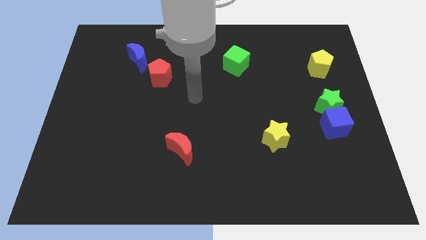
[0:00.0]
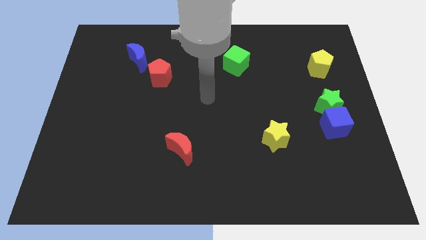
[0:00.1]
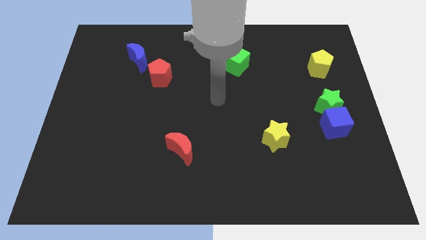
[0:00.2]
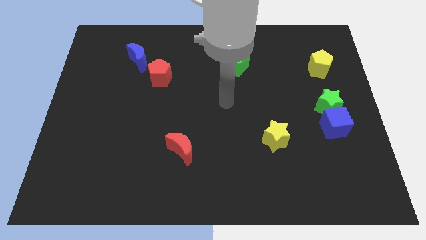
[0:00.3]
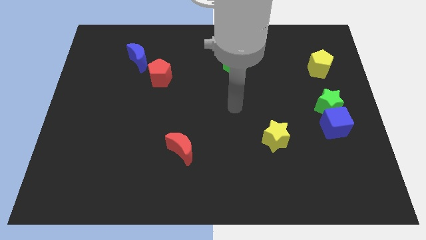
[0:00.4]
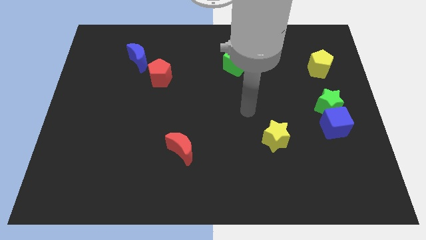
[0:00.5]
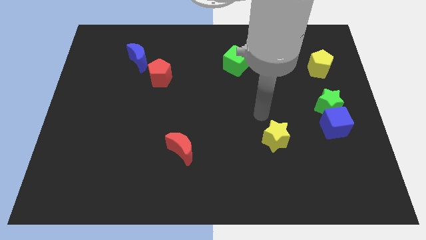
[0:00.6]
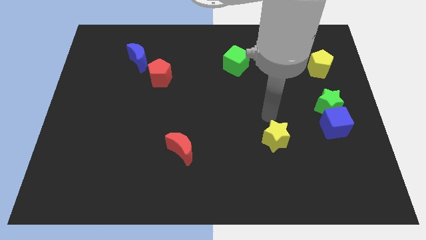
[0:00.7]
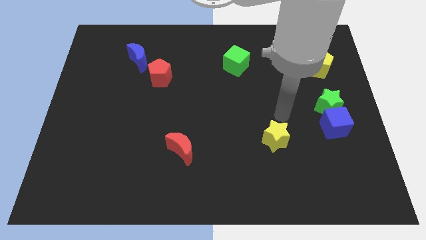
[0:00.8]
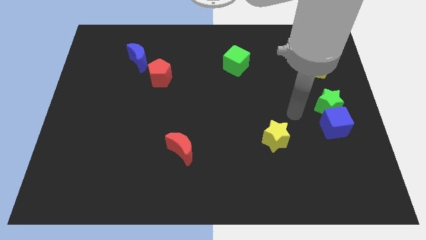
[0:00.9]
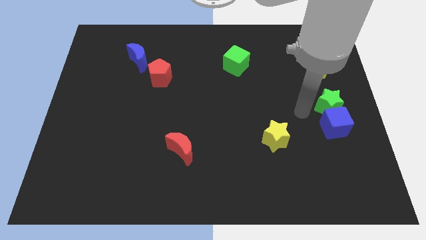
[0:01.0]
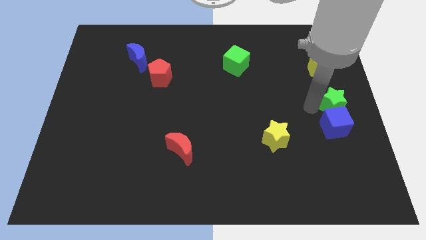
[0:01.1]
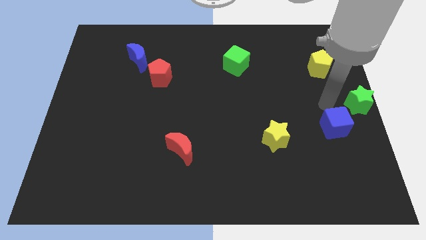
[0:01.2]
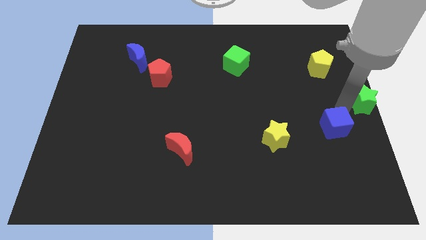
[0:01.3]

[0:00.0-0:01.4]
pull the blue cube apart from the green star

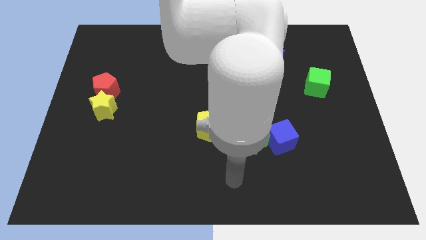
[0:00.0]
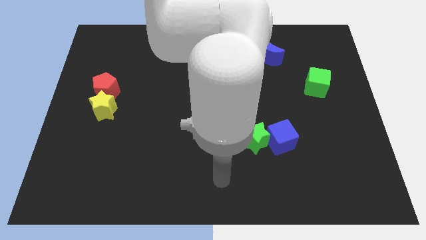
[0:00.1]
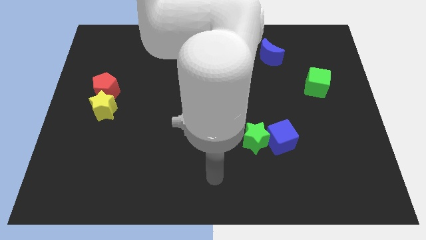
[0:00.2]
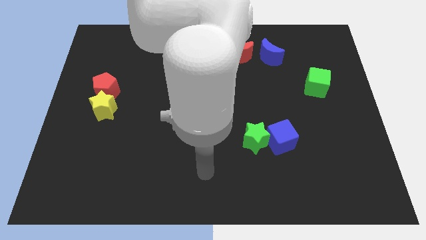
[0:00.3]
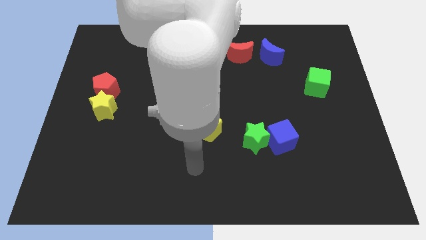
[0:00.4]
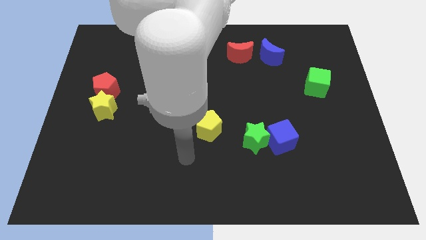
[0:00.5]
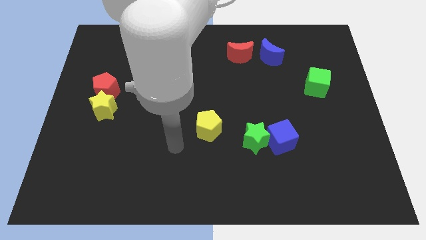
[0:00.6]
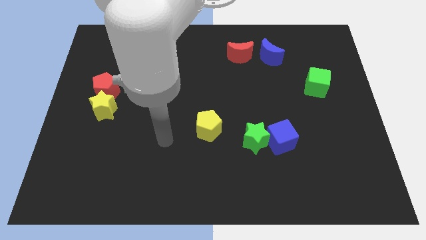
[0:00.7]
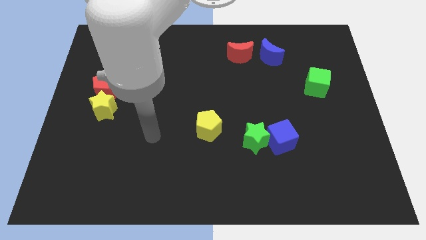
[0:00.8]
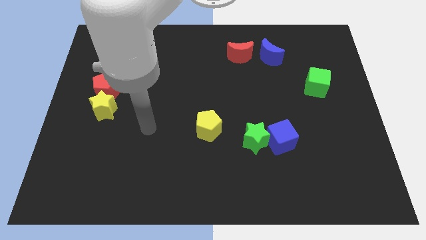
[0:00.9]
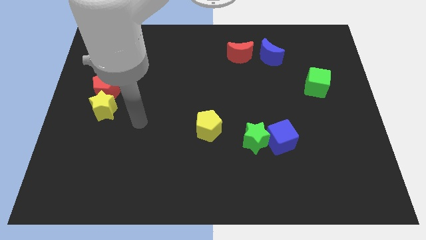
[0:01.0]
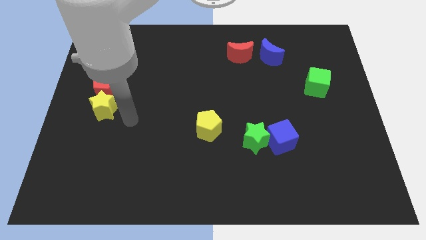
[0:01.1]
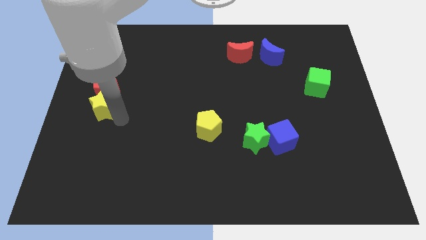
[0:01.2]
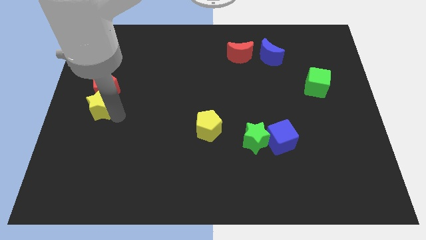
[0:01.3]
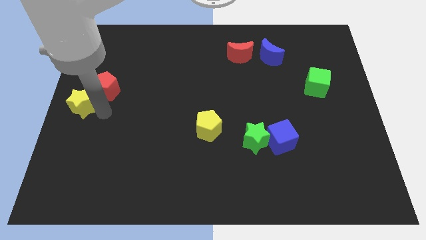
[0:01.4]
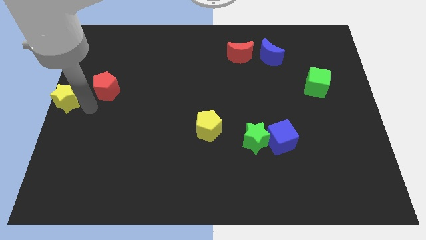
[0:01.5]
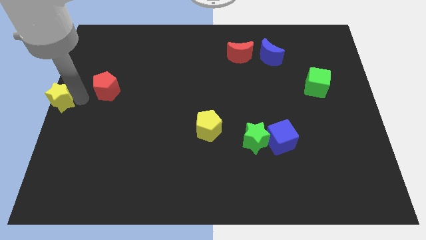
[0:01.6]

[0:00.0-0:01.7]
pull the red pentagon apart from the yellow star

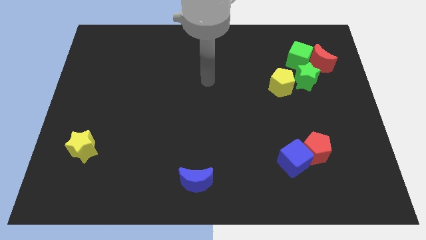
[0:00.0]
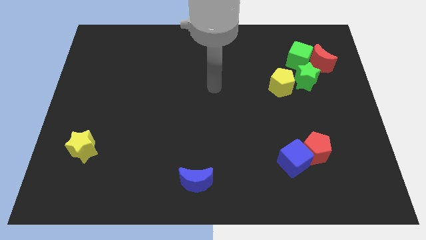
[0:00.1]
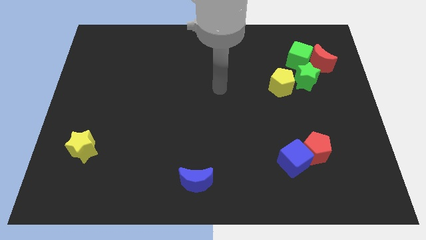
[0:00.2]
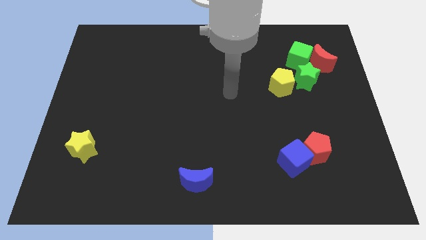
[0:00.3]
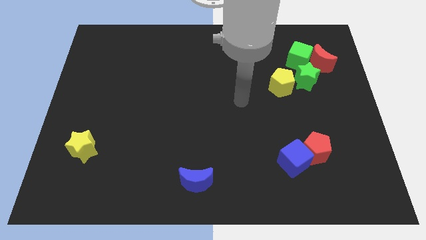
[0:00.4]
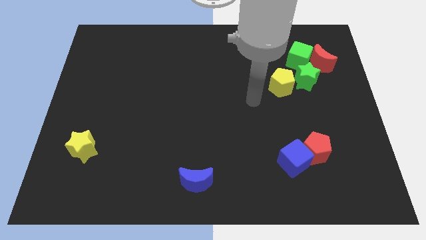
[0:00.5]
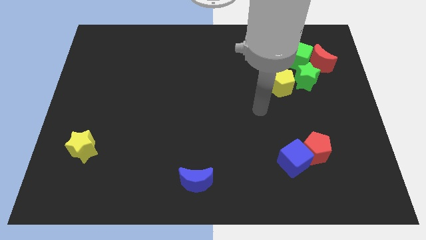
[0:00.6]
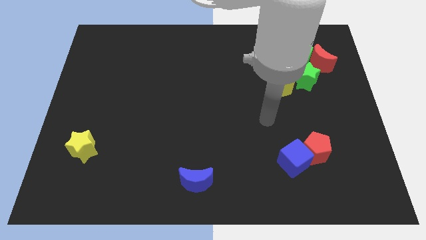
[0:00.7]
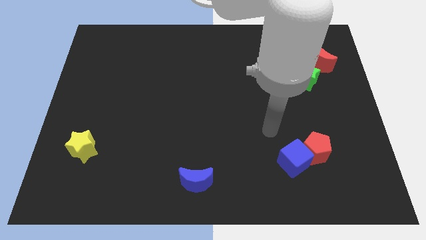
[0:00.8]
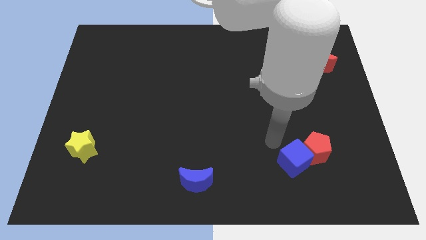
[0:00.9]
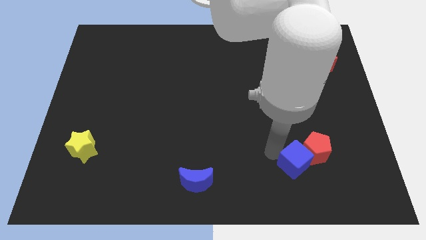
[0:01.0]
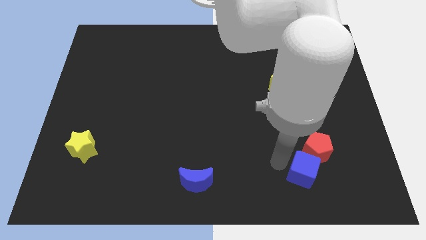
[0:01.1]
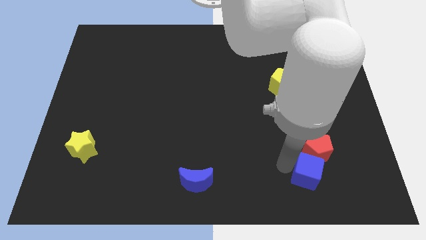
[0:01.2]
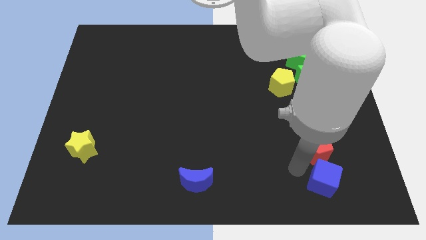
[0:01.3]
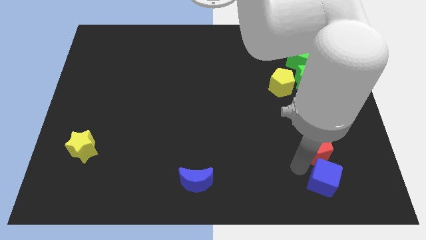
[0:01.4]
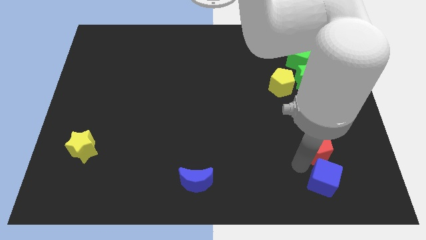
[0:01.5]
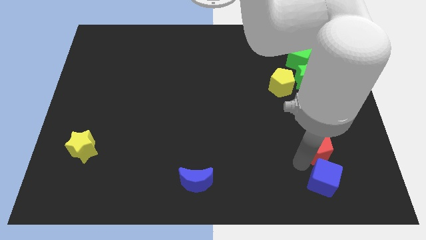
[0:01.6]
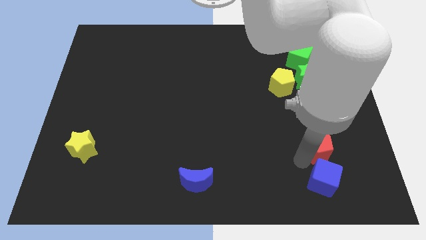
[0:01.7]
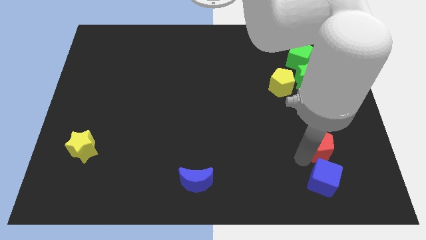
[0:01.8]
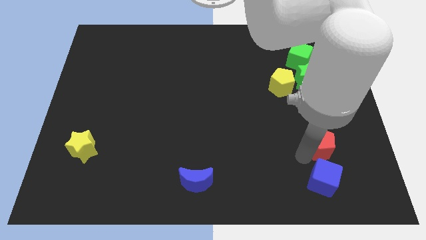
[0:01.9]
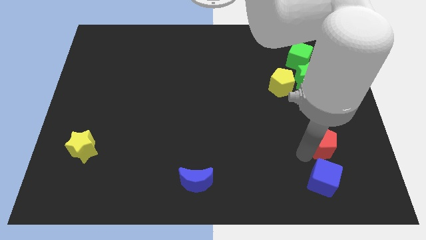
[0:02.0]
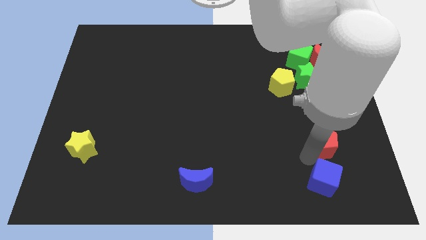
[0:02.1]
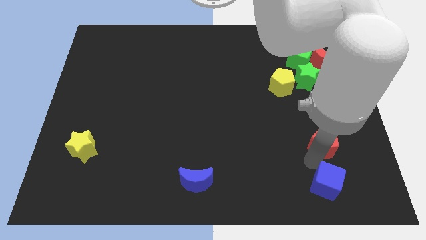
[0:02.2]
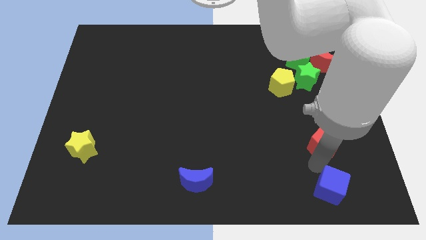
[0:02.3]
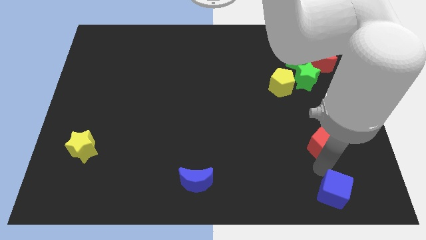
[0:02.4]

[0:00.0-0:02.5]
move the red pentagon away from the blue cube

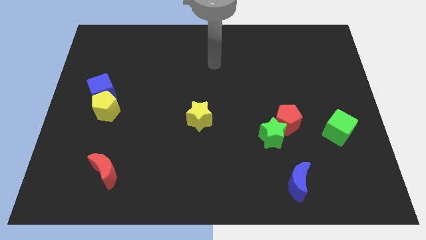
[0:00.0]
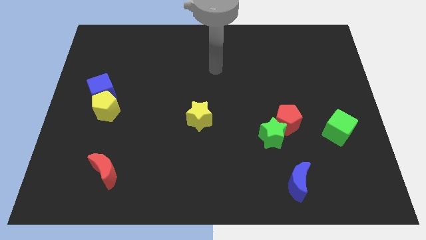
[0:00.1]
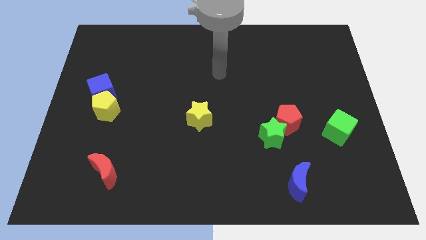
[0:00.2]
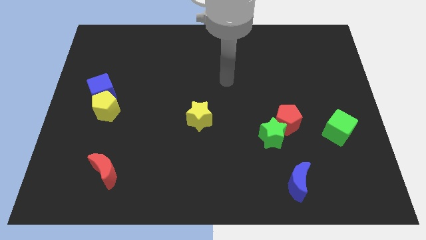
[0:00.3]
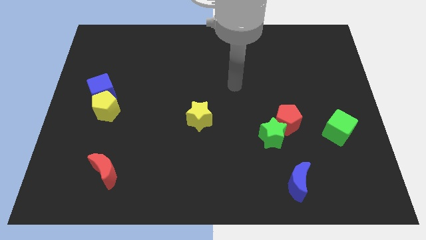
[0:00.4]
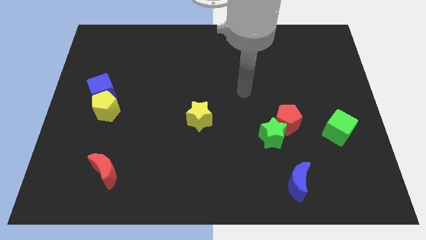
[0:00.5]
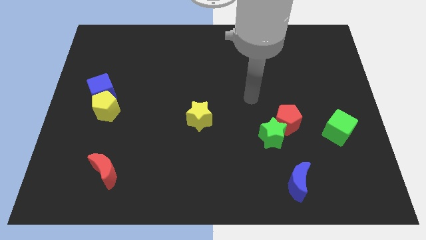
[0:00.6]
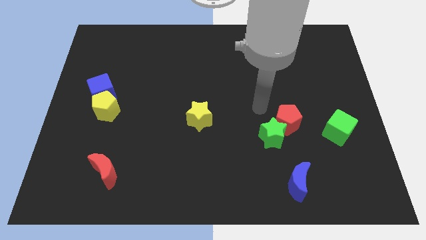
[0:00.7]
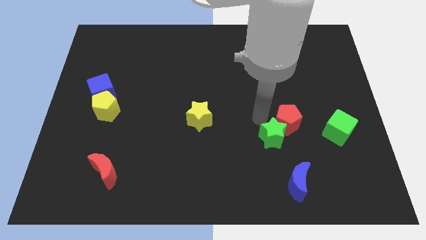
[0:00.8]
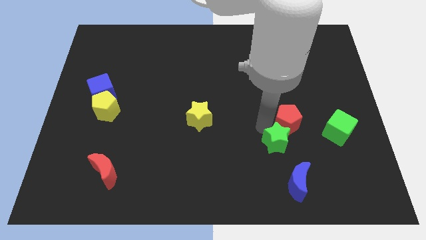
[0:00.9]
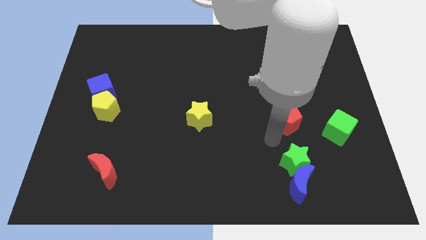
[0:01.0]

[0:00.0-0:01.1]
move the red pentagon away from the green star

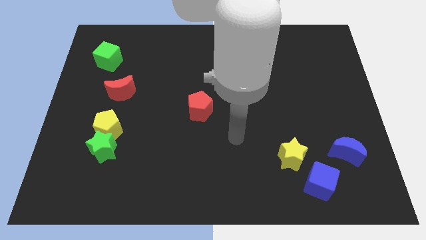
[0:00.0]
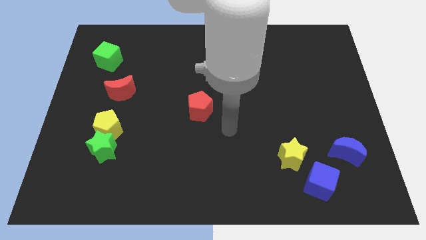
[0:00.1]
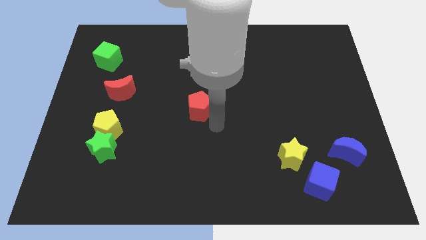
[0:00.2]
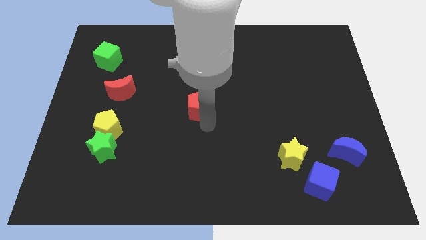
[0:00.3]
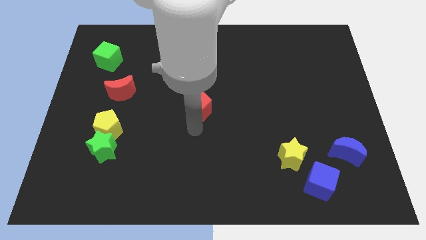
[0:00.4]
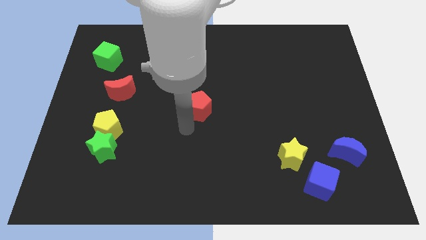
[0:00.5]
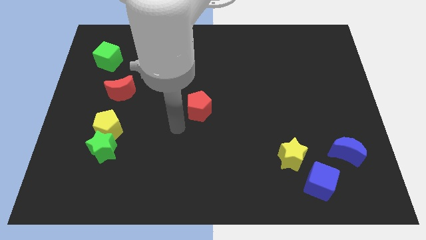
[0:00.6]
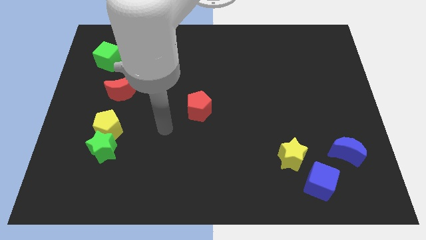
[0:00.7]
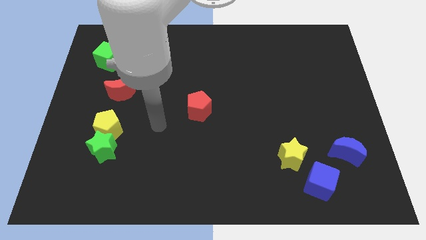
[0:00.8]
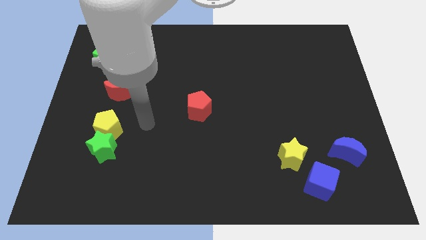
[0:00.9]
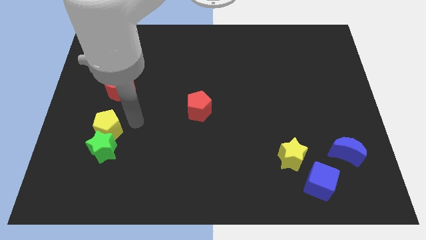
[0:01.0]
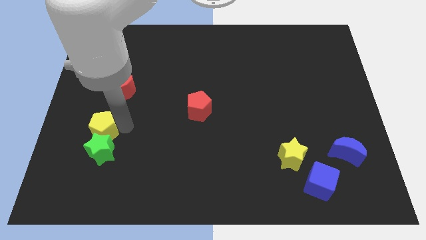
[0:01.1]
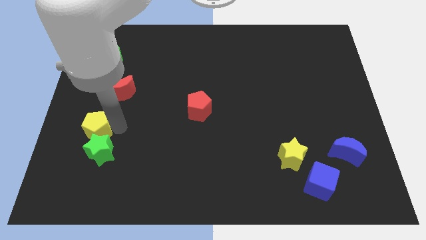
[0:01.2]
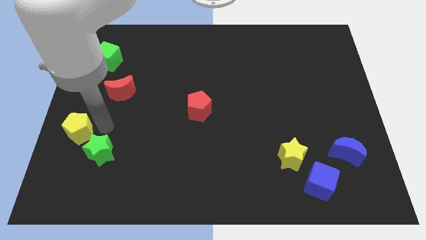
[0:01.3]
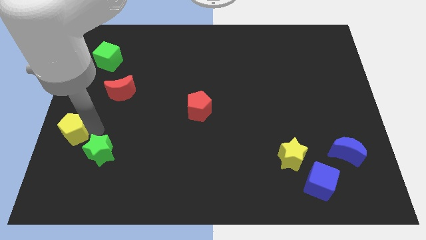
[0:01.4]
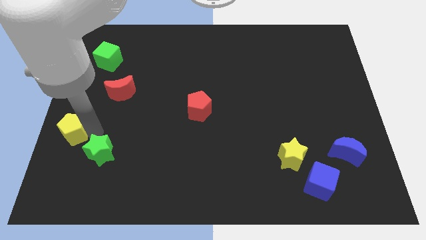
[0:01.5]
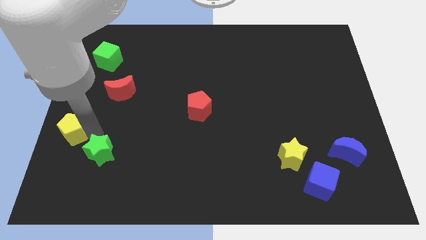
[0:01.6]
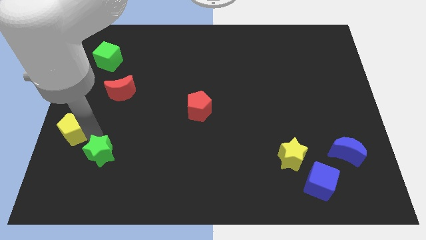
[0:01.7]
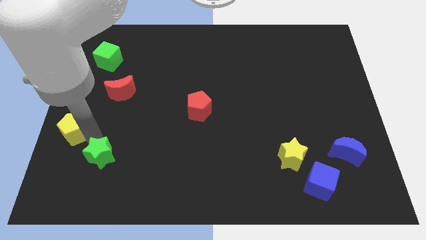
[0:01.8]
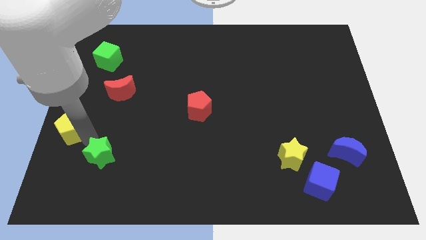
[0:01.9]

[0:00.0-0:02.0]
separate the green star from the yellow pentagon

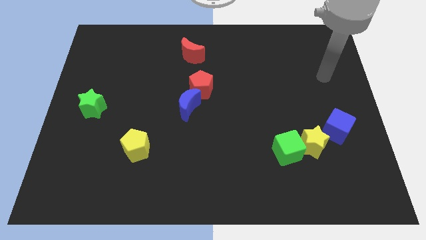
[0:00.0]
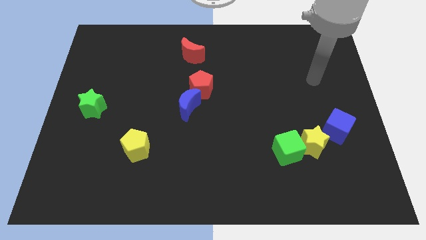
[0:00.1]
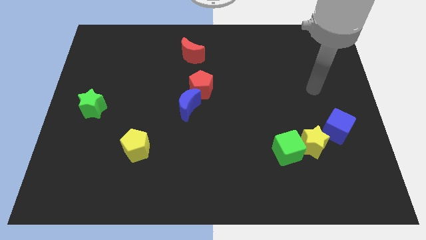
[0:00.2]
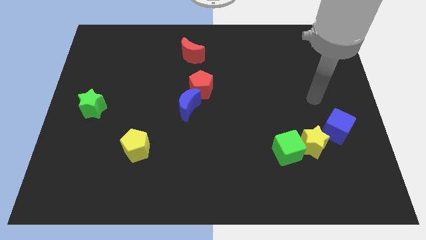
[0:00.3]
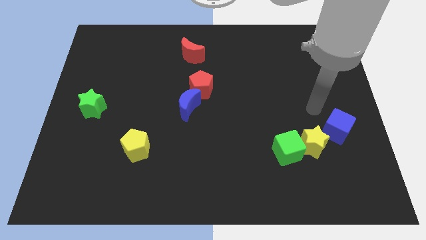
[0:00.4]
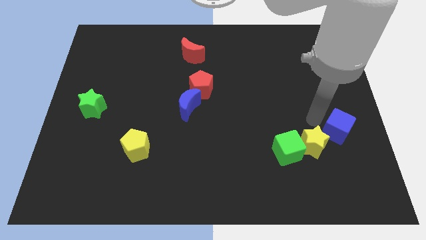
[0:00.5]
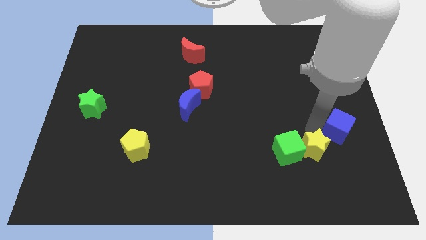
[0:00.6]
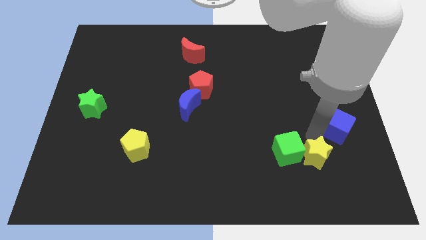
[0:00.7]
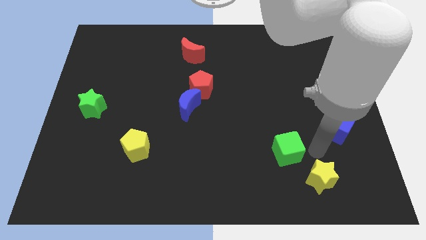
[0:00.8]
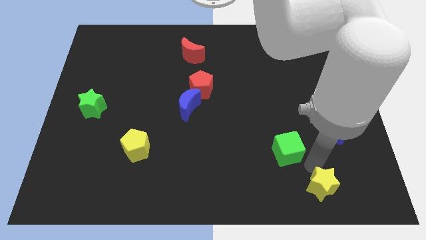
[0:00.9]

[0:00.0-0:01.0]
move the green cube away from the yellow star
